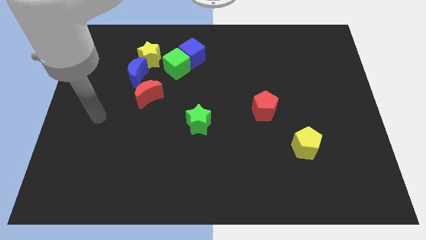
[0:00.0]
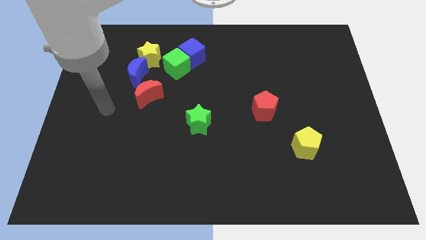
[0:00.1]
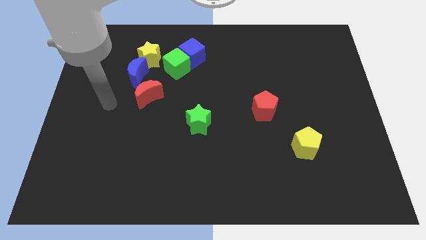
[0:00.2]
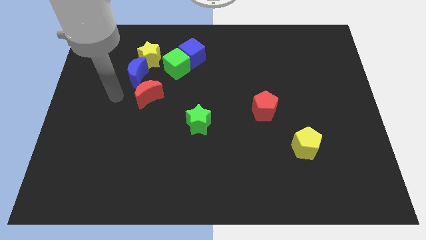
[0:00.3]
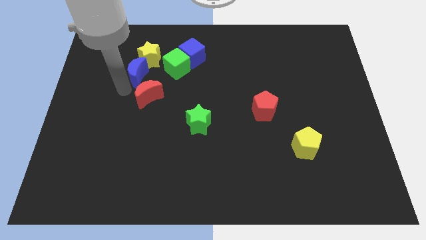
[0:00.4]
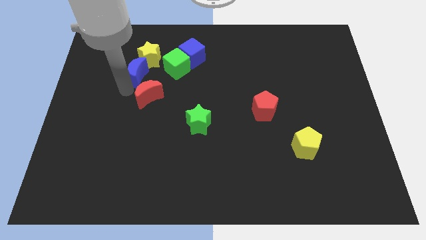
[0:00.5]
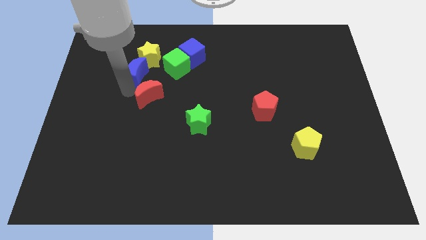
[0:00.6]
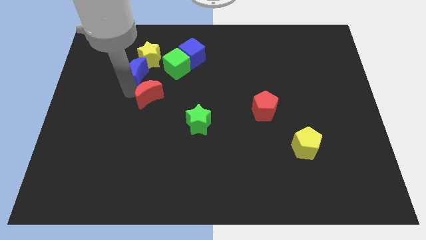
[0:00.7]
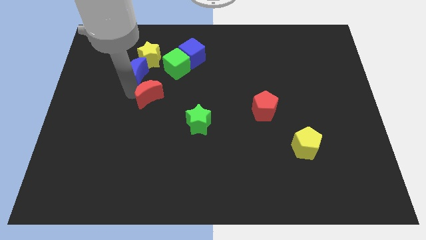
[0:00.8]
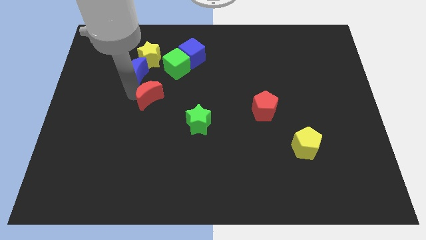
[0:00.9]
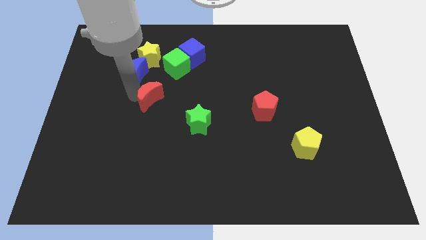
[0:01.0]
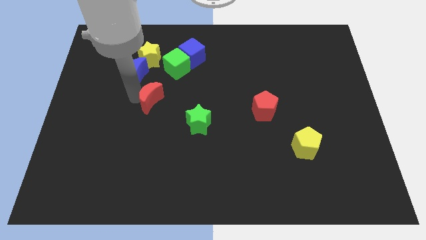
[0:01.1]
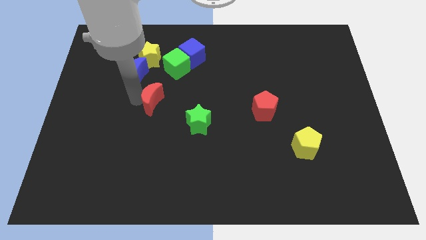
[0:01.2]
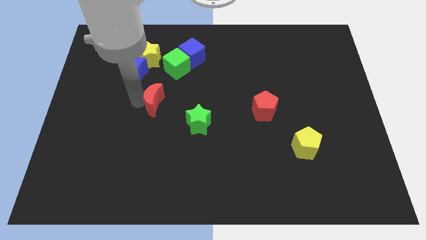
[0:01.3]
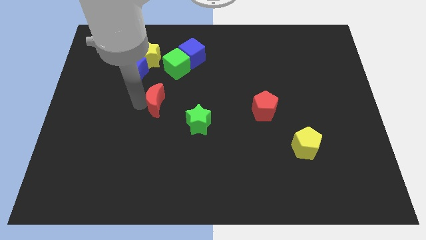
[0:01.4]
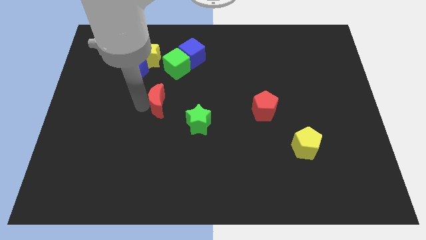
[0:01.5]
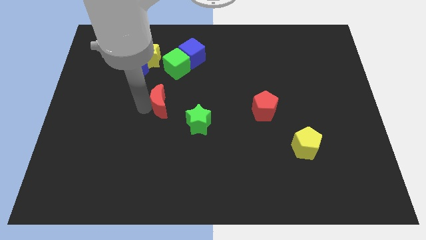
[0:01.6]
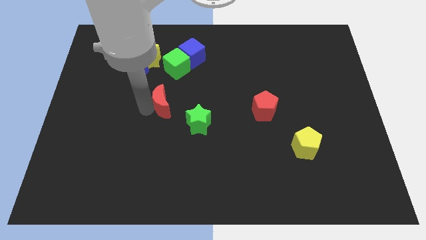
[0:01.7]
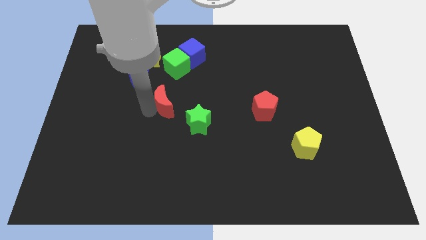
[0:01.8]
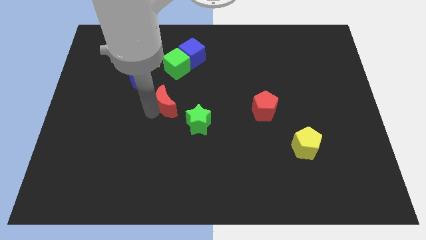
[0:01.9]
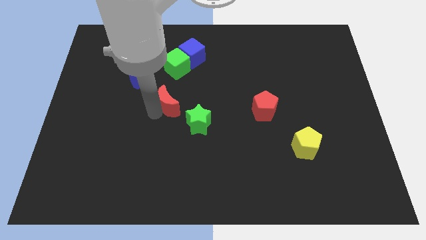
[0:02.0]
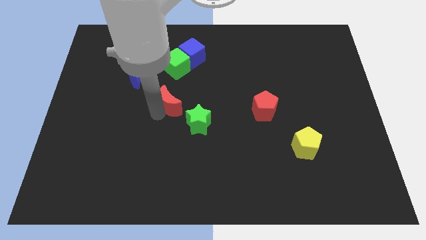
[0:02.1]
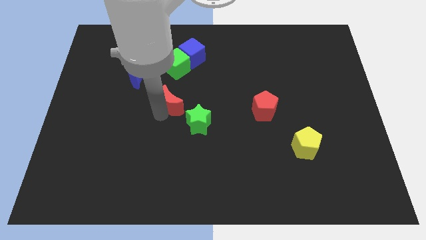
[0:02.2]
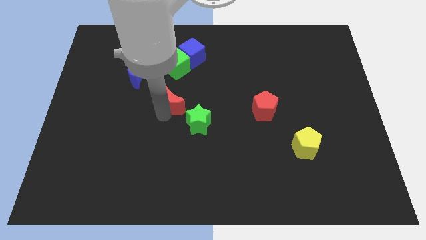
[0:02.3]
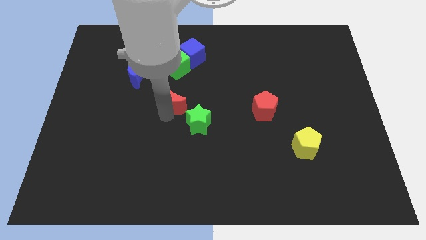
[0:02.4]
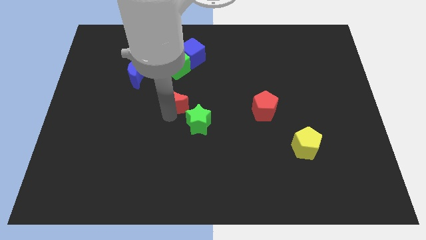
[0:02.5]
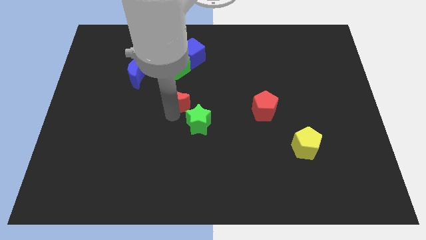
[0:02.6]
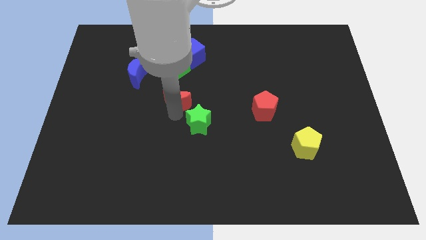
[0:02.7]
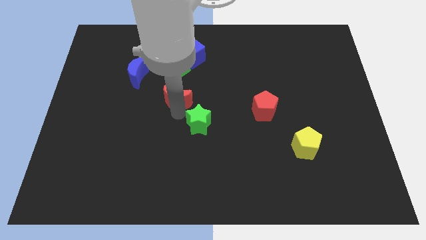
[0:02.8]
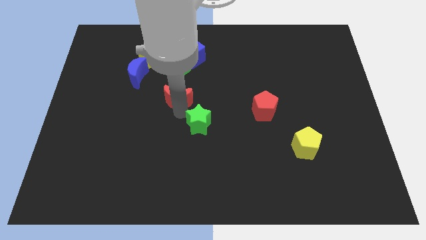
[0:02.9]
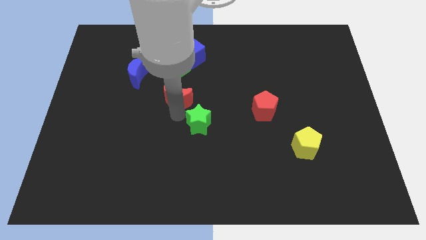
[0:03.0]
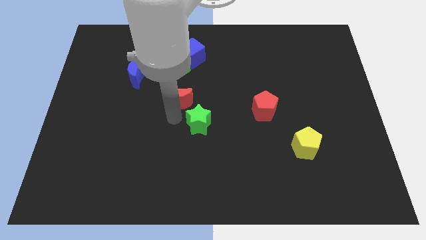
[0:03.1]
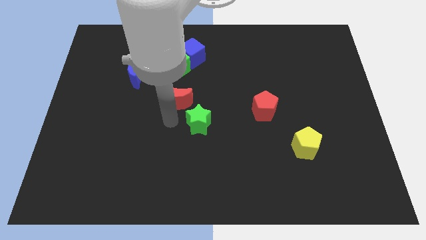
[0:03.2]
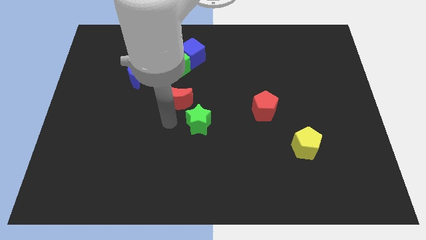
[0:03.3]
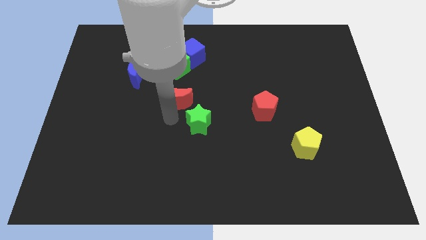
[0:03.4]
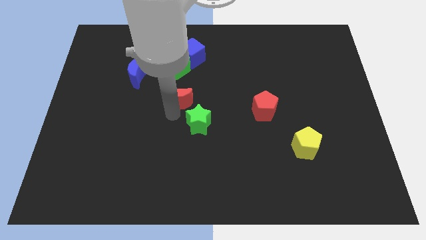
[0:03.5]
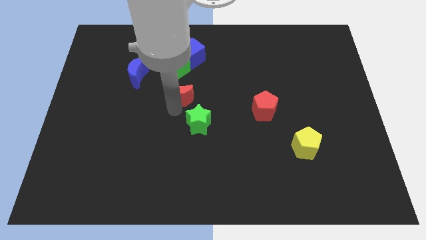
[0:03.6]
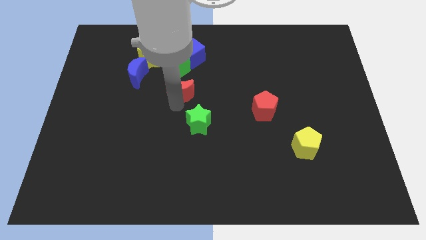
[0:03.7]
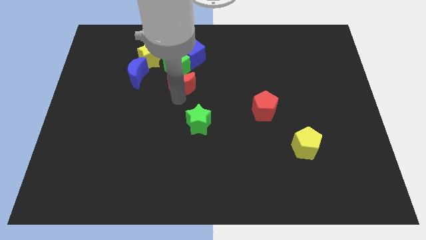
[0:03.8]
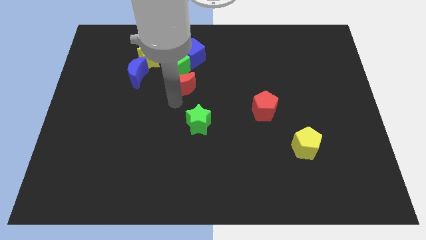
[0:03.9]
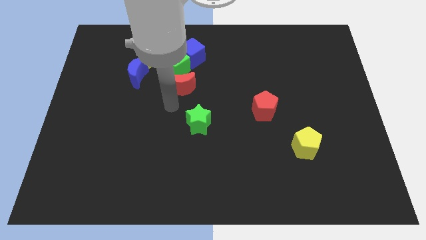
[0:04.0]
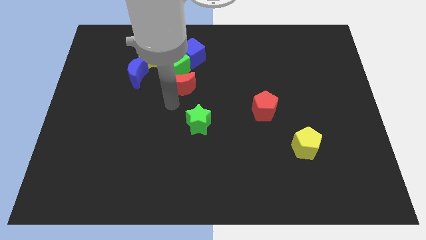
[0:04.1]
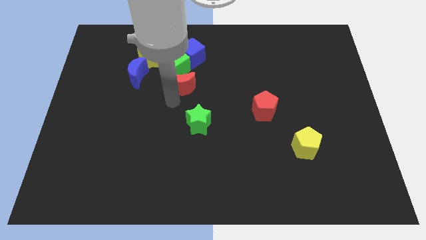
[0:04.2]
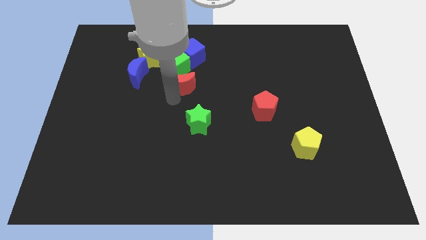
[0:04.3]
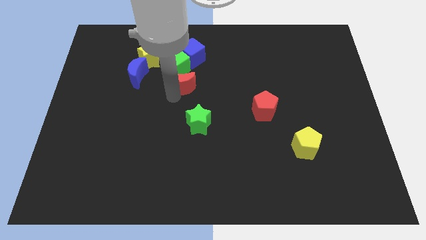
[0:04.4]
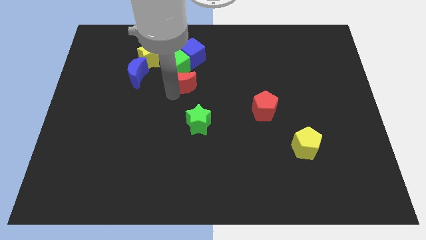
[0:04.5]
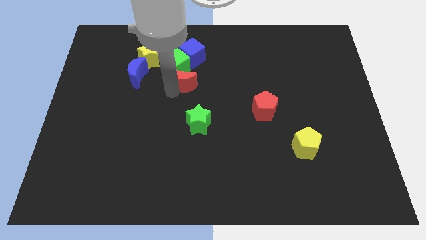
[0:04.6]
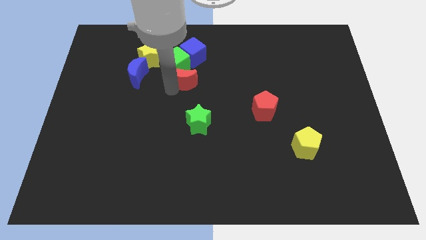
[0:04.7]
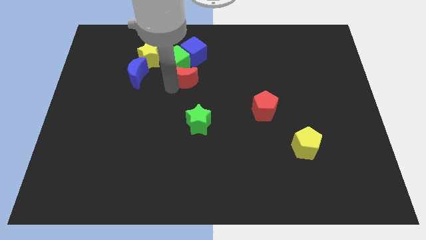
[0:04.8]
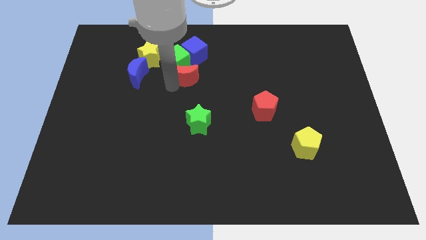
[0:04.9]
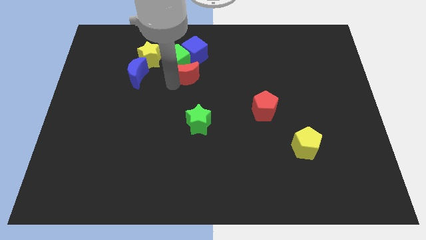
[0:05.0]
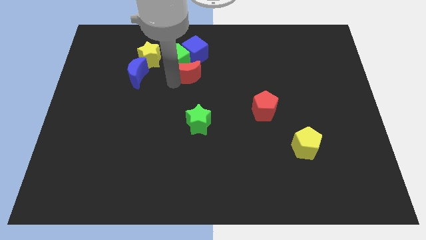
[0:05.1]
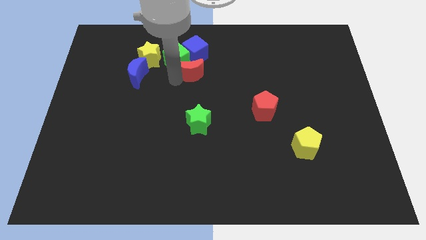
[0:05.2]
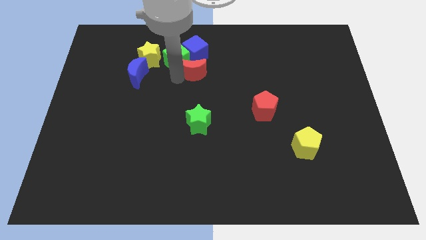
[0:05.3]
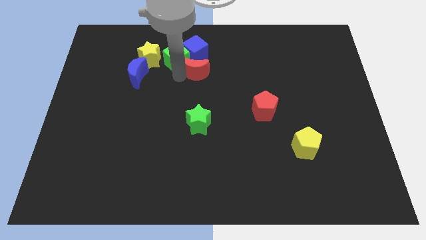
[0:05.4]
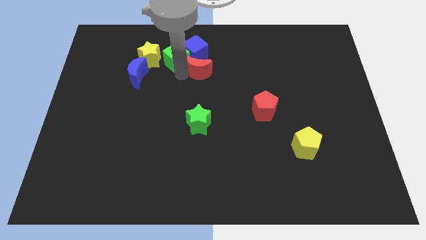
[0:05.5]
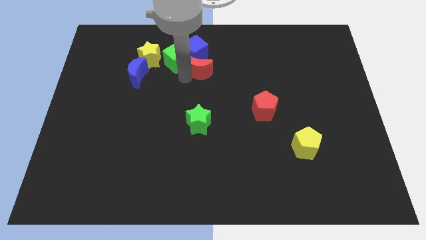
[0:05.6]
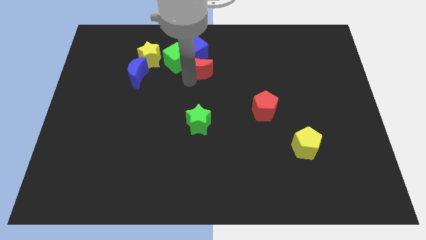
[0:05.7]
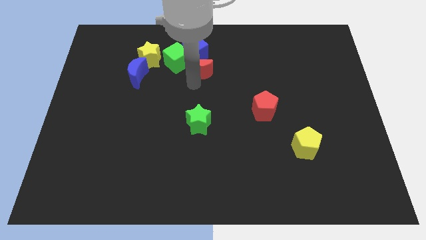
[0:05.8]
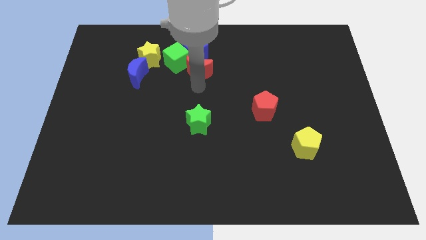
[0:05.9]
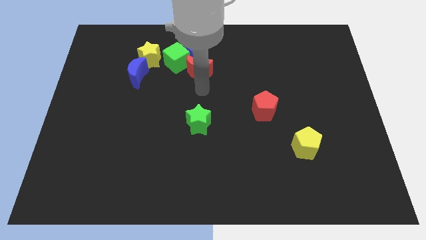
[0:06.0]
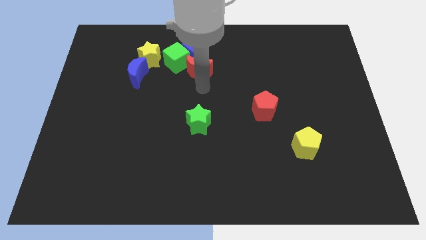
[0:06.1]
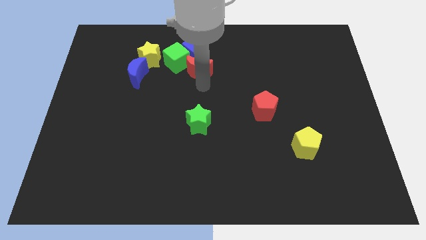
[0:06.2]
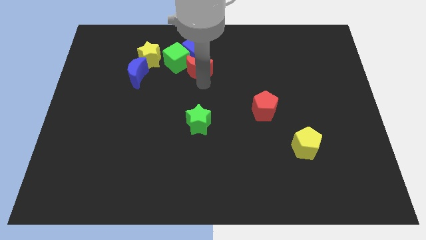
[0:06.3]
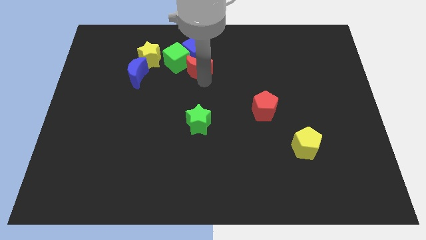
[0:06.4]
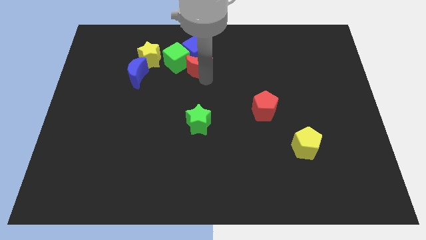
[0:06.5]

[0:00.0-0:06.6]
put the red moon to the blue cube

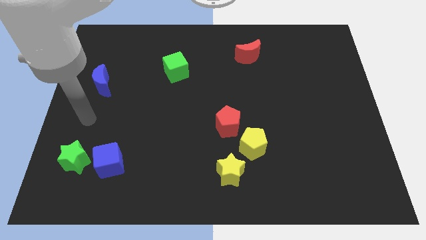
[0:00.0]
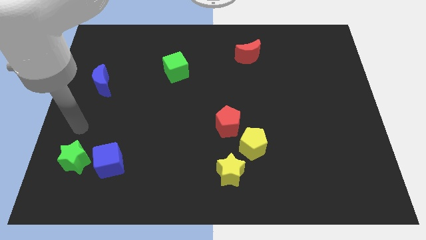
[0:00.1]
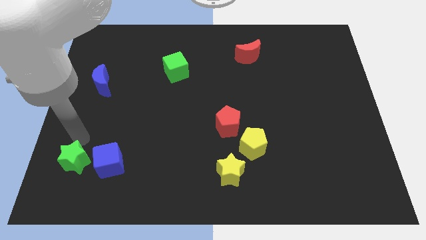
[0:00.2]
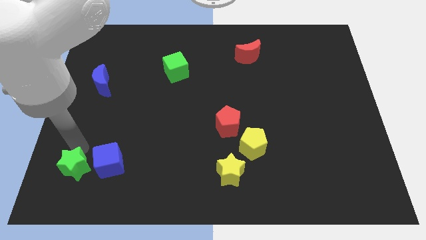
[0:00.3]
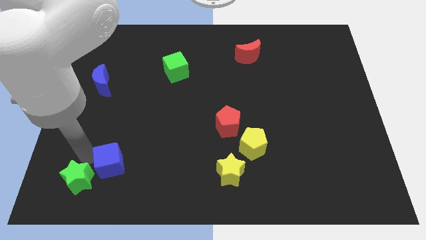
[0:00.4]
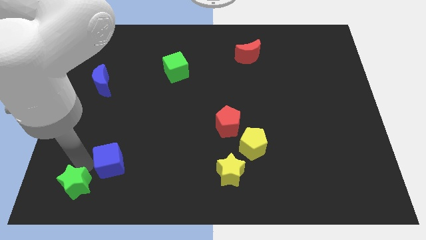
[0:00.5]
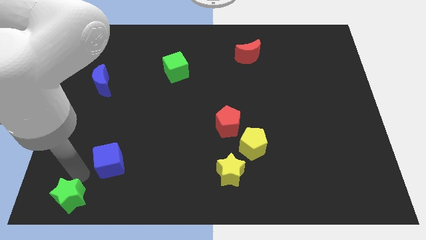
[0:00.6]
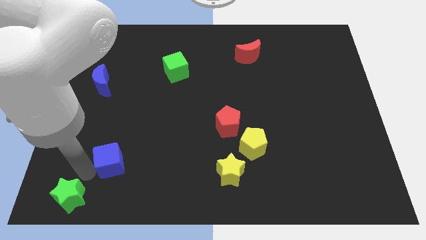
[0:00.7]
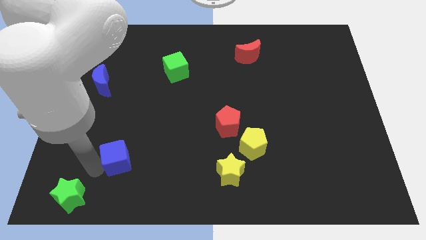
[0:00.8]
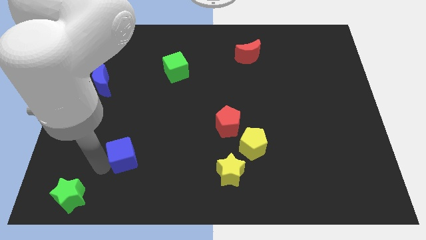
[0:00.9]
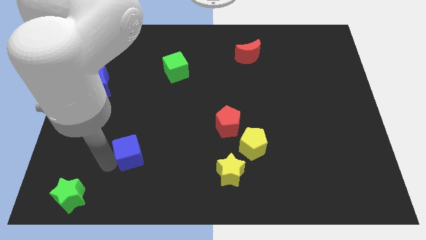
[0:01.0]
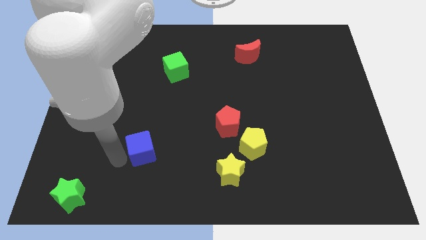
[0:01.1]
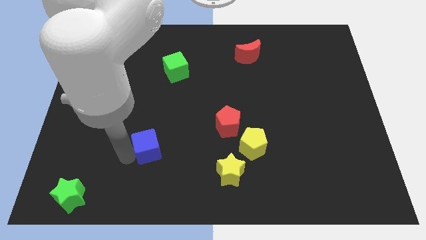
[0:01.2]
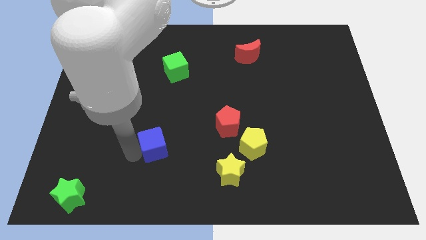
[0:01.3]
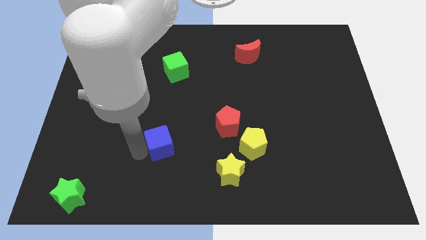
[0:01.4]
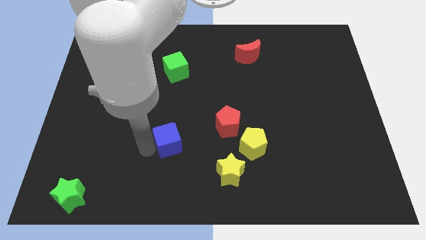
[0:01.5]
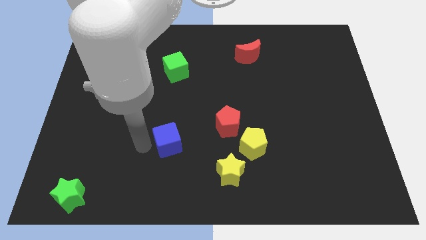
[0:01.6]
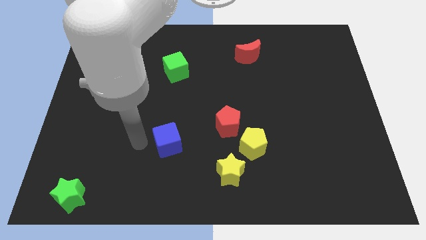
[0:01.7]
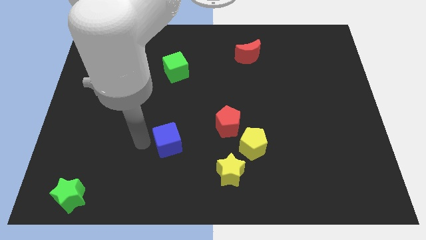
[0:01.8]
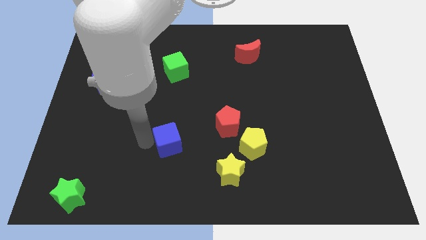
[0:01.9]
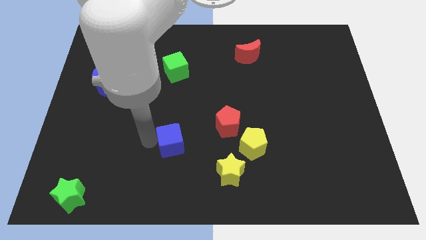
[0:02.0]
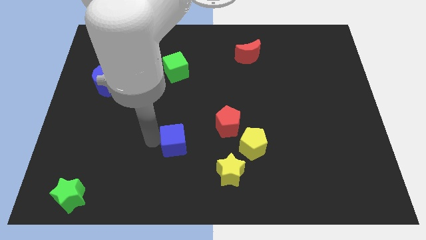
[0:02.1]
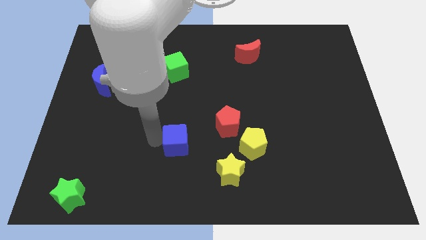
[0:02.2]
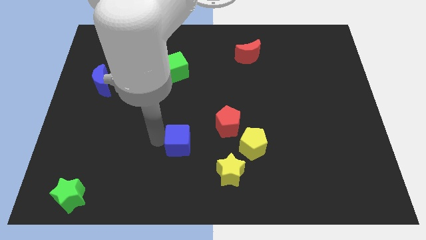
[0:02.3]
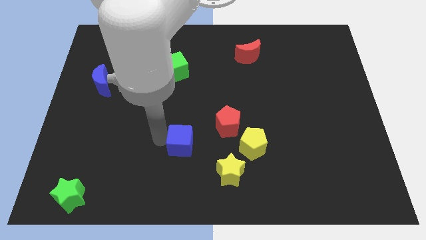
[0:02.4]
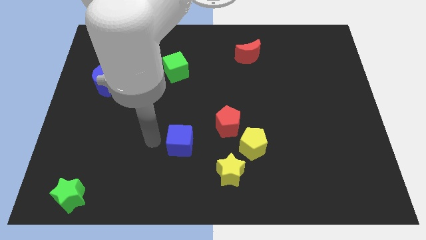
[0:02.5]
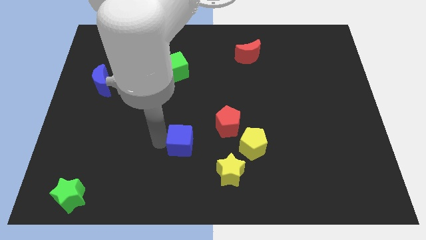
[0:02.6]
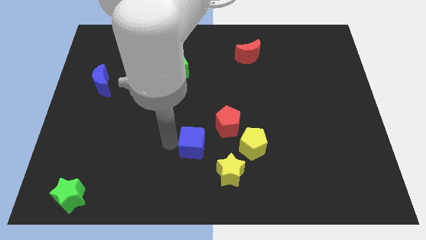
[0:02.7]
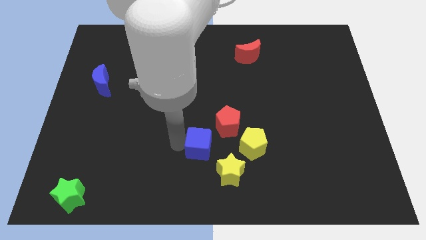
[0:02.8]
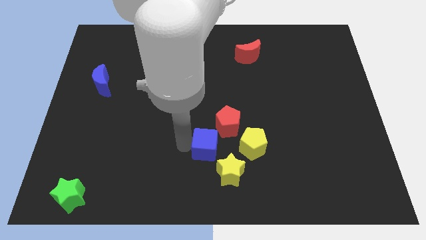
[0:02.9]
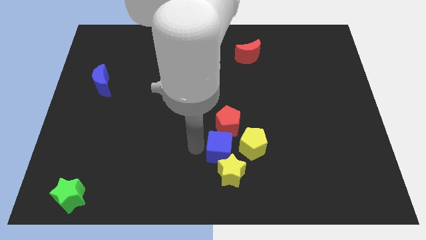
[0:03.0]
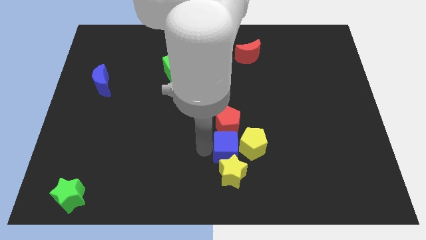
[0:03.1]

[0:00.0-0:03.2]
slide the blue cube next to the yellow pentagon
